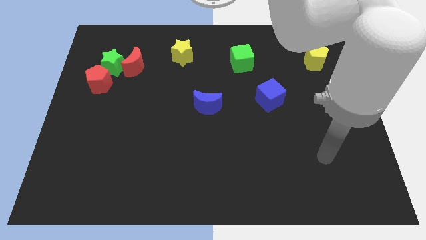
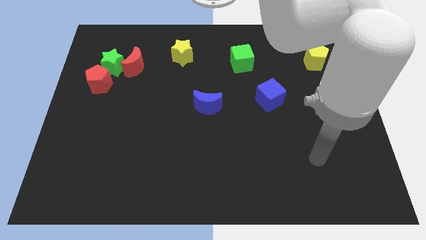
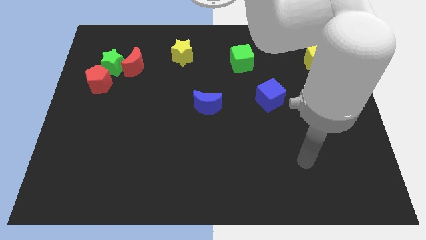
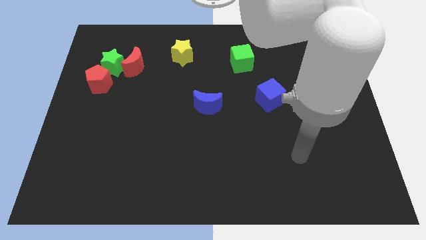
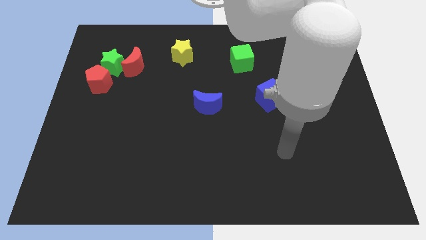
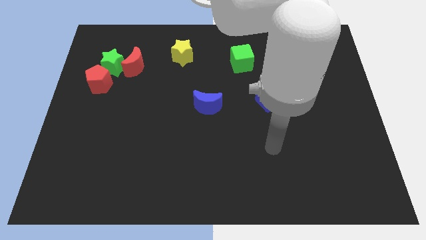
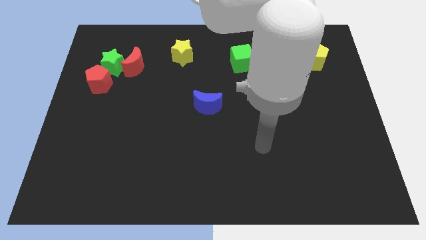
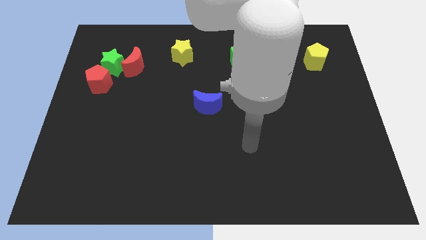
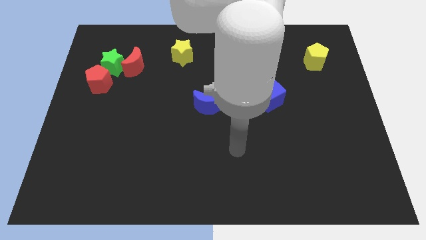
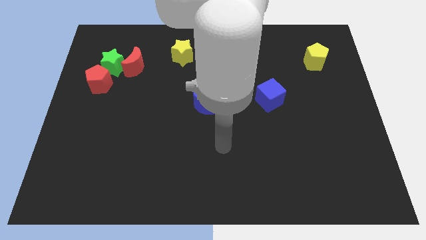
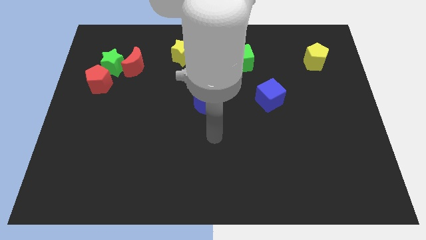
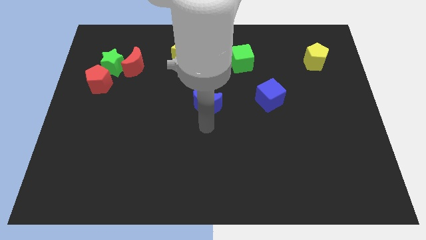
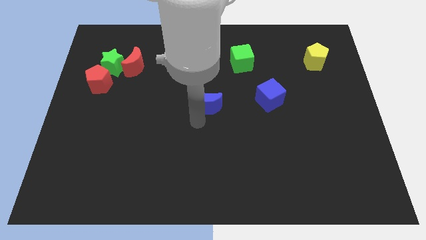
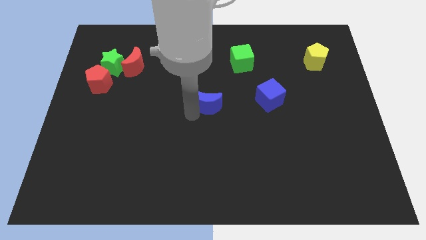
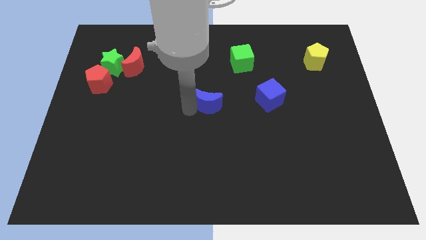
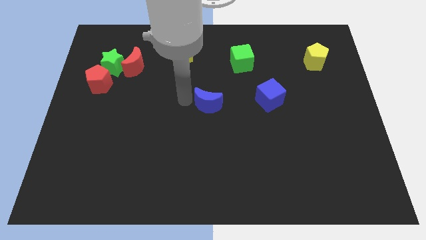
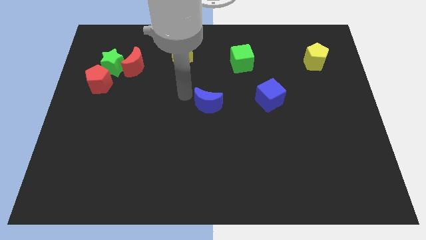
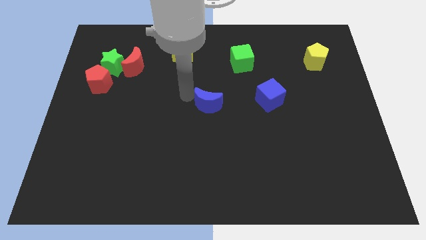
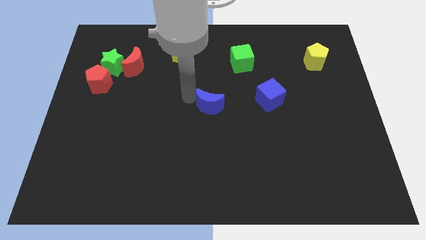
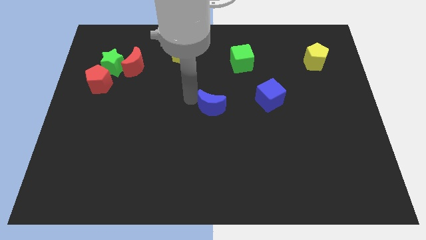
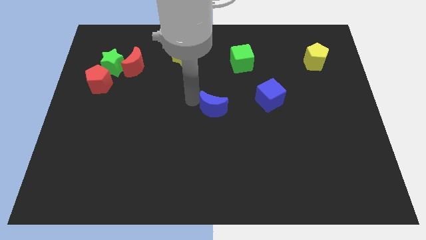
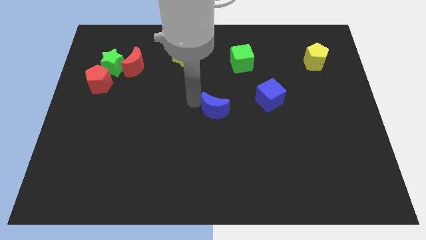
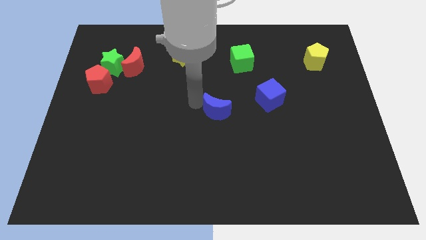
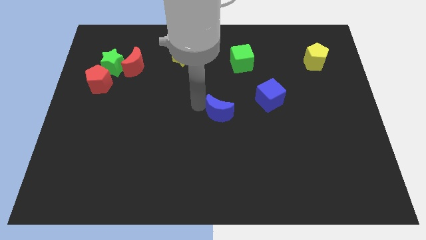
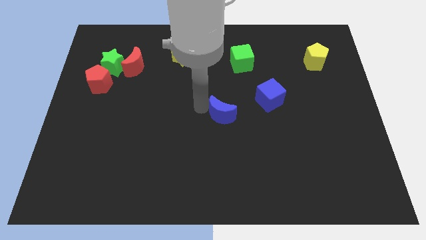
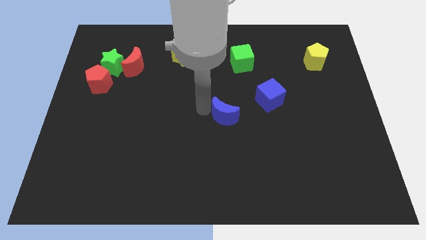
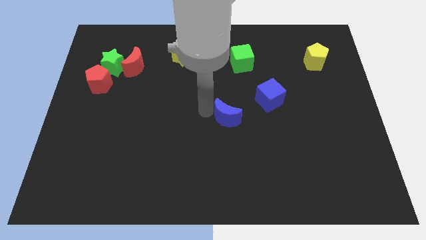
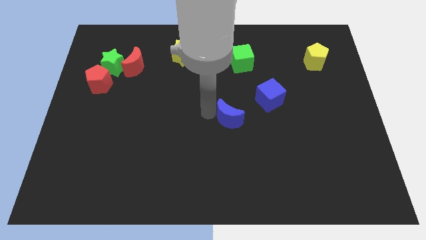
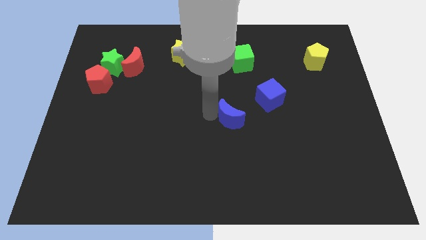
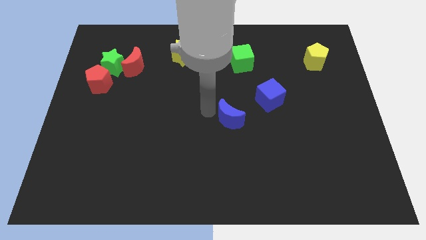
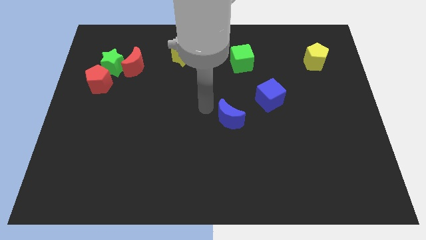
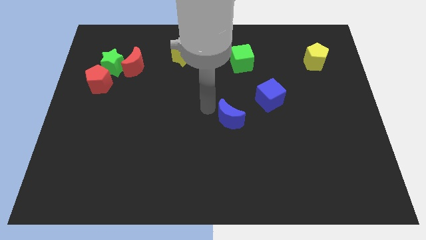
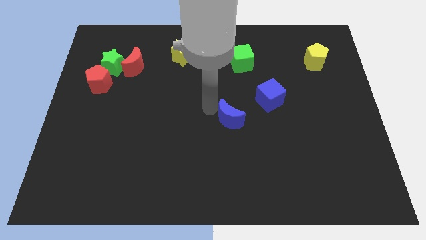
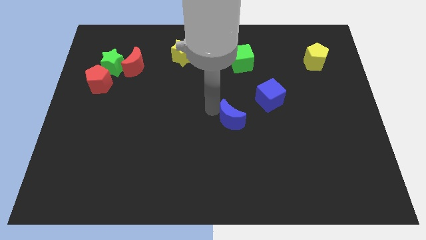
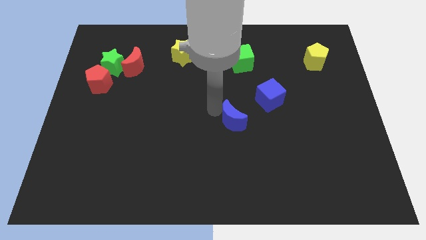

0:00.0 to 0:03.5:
slightly move the blue moon down and then right

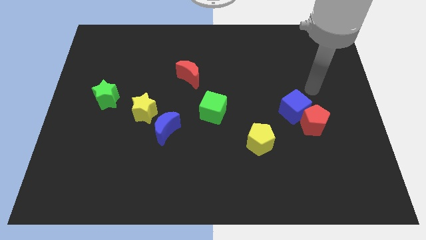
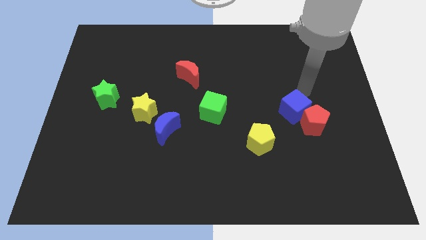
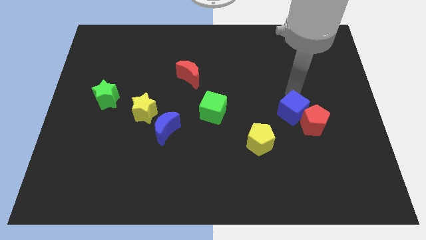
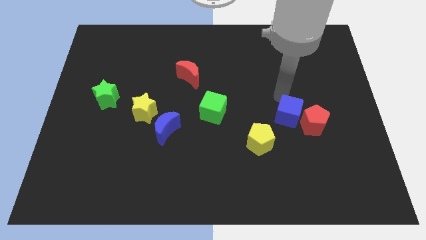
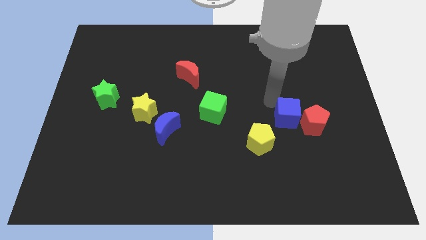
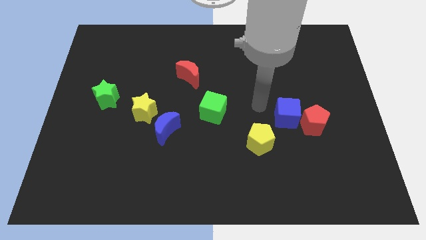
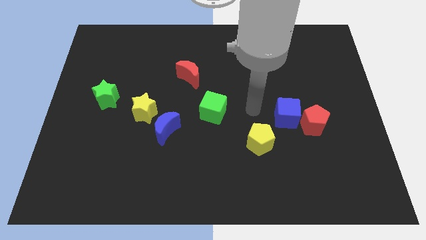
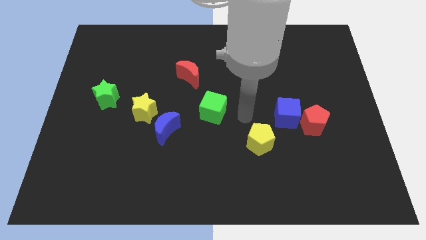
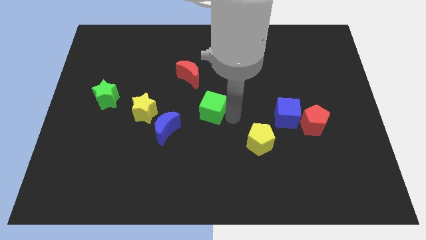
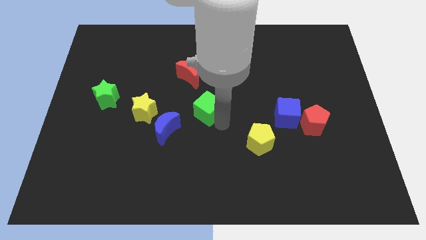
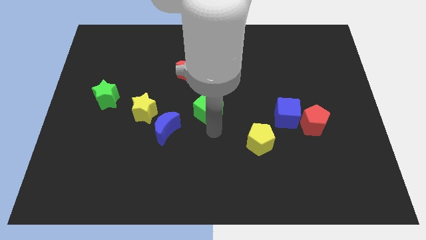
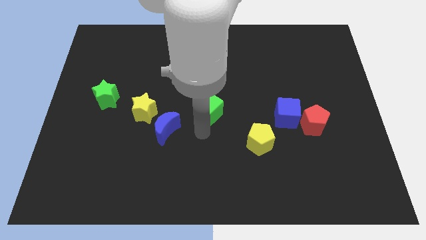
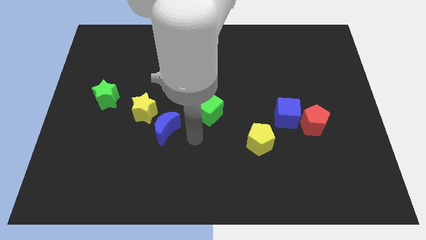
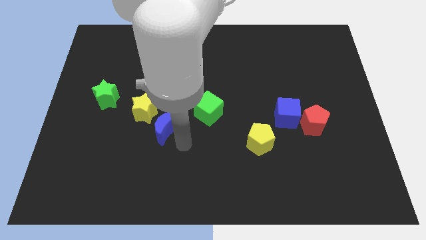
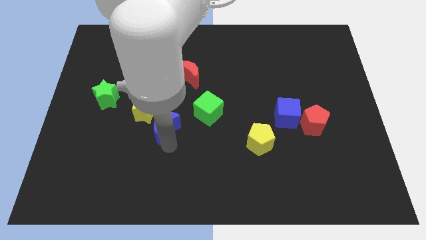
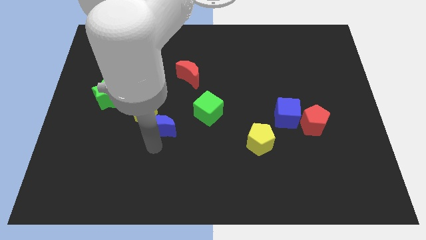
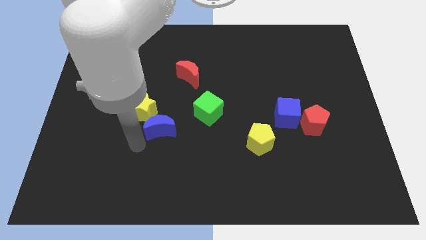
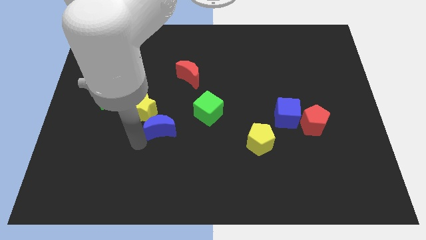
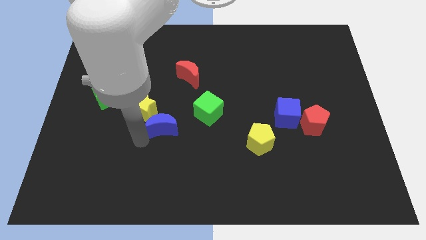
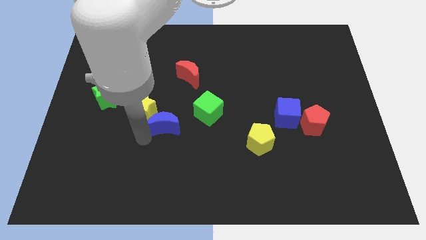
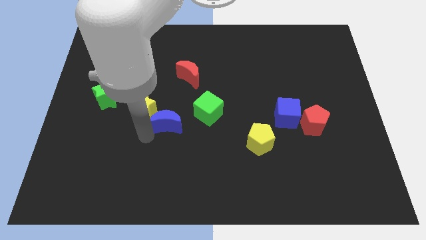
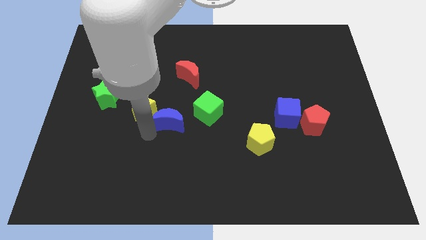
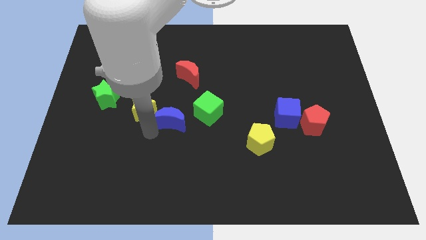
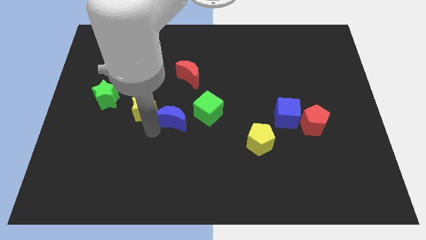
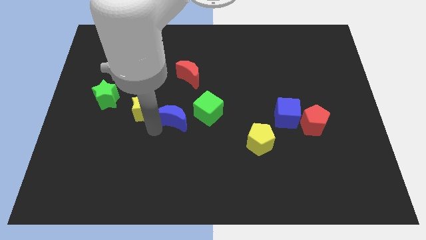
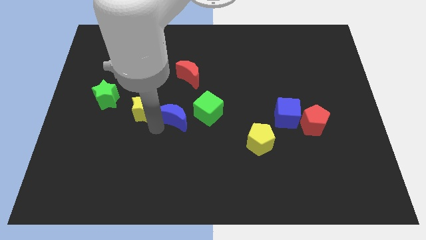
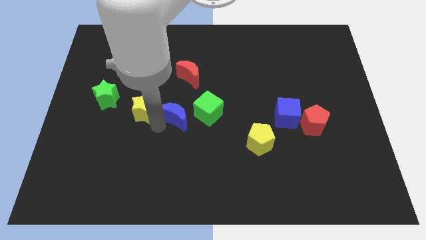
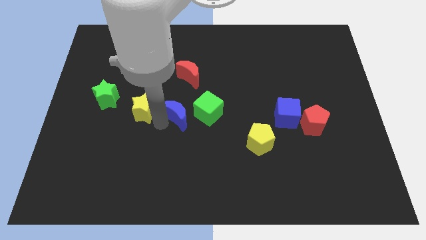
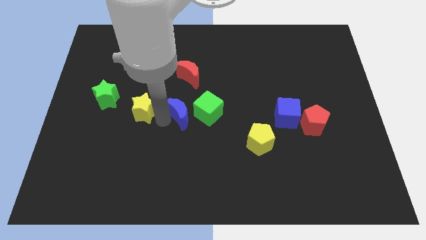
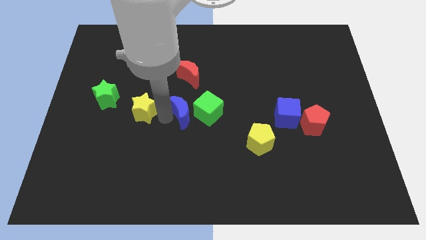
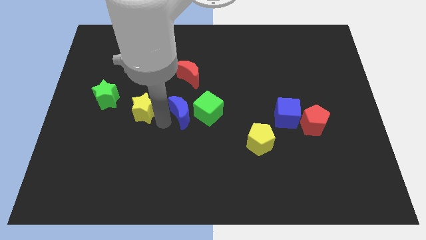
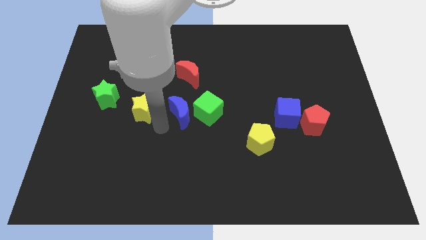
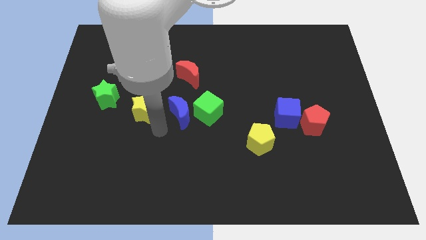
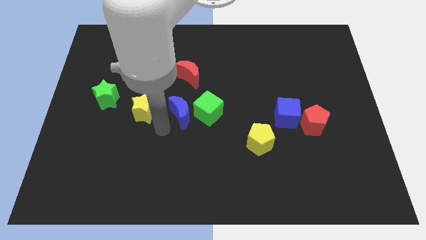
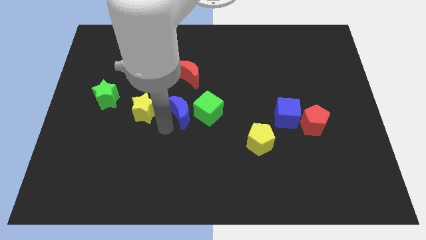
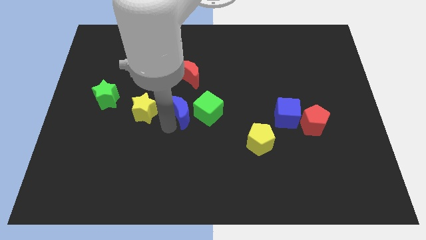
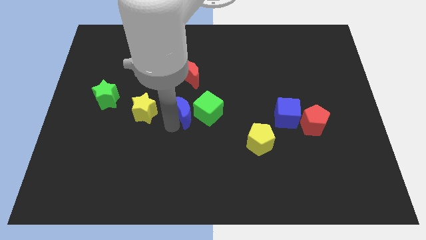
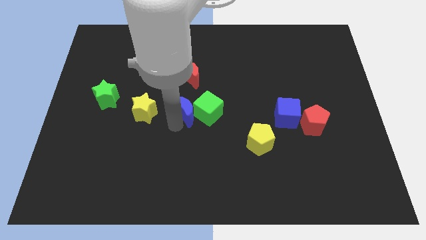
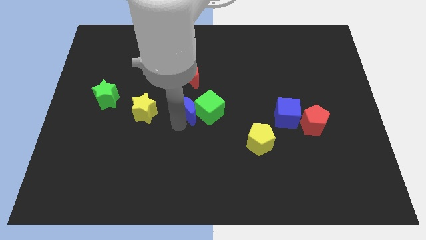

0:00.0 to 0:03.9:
slightly move the blue moon upwards and right

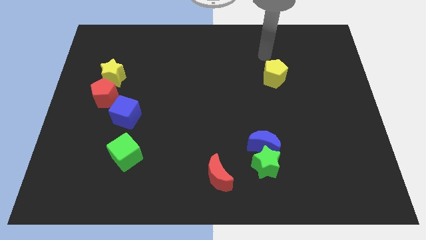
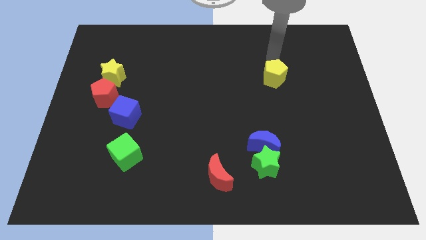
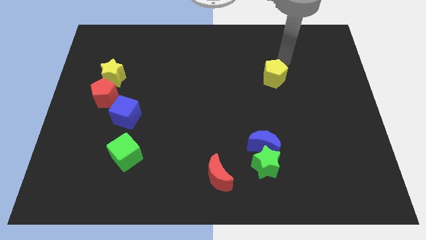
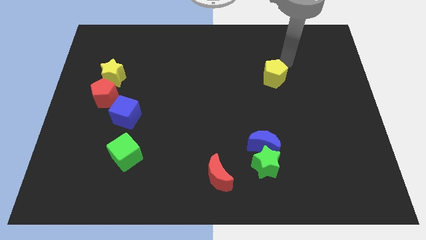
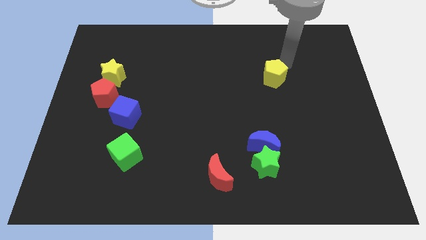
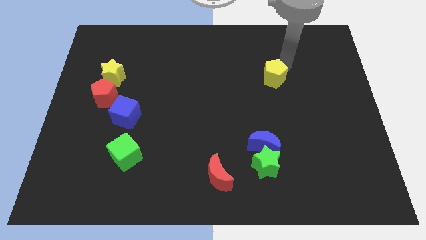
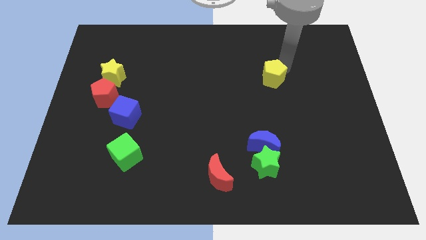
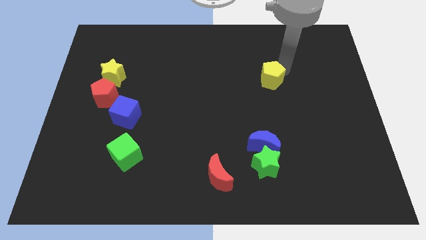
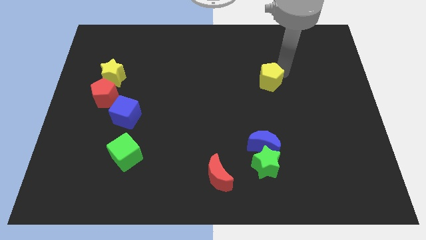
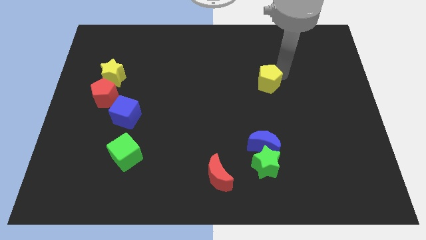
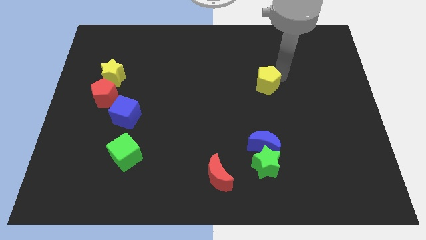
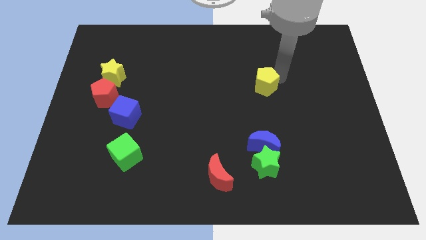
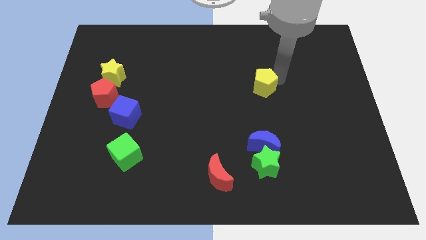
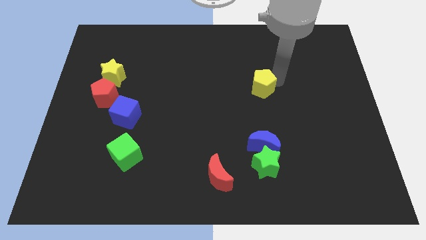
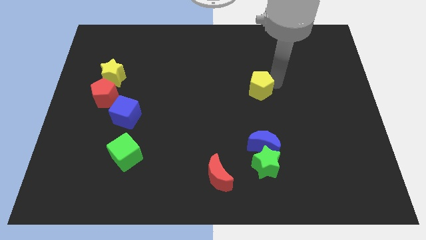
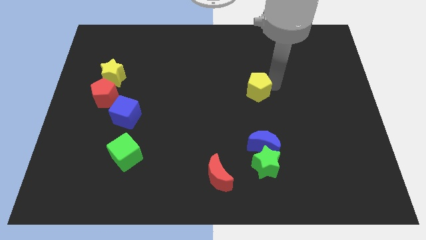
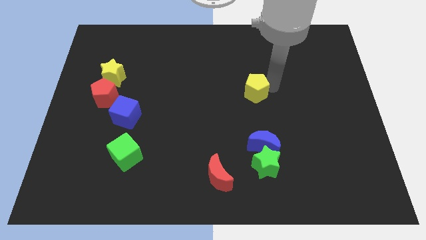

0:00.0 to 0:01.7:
push the yellow pentagon diagonally down and to the left slightly
